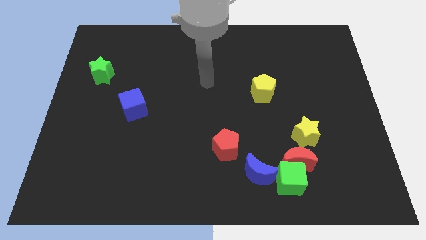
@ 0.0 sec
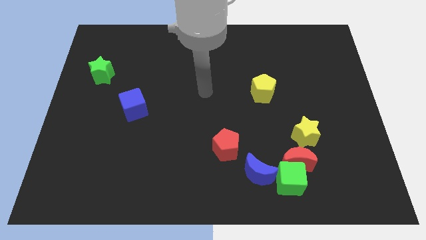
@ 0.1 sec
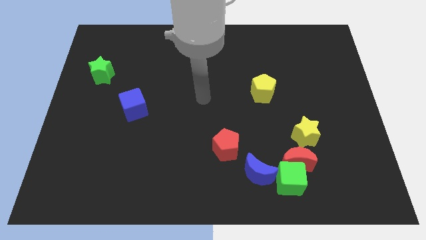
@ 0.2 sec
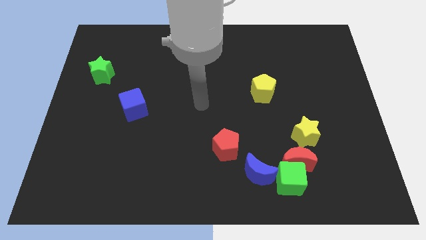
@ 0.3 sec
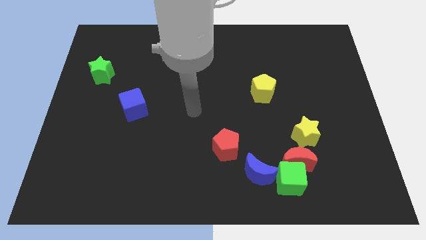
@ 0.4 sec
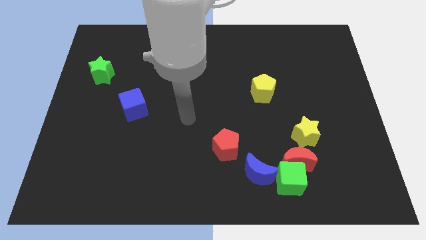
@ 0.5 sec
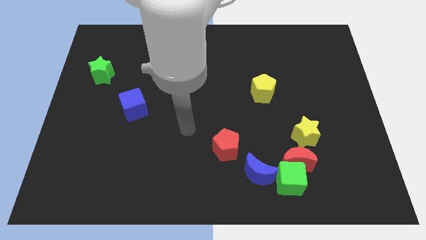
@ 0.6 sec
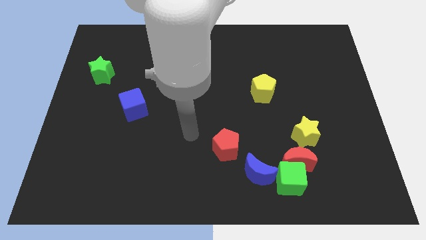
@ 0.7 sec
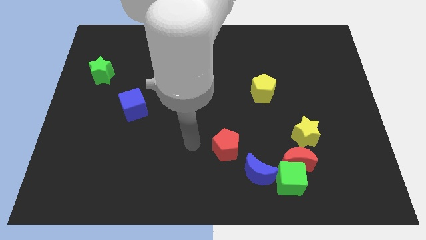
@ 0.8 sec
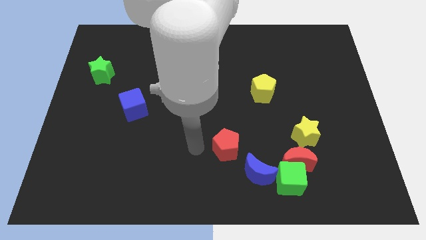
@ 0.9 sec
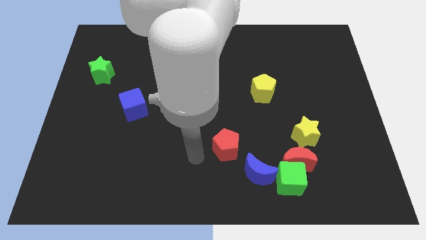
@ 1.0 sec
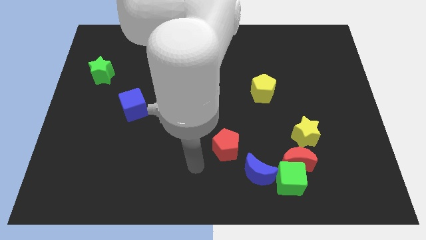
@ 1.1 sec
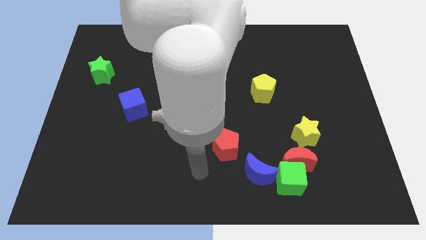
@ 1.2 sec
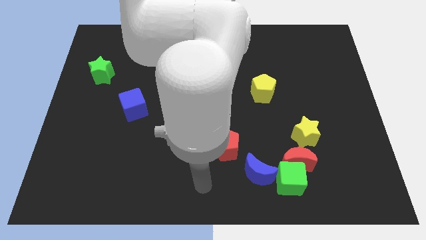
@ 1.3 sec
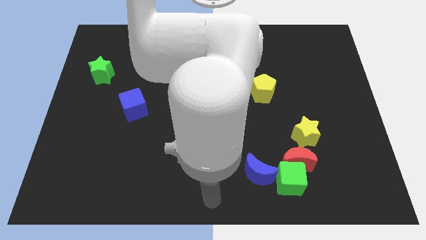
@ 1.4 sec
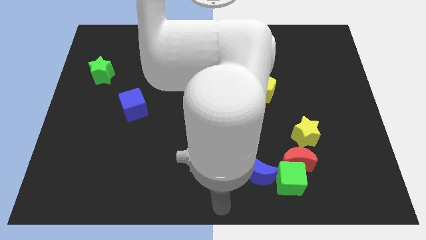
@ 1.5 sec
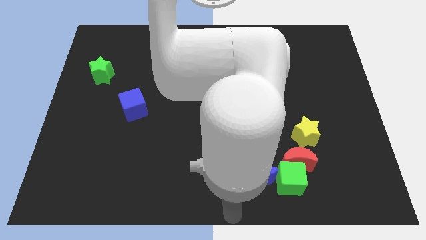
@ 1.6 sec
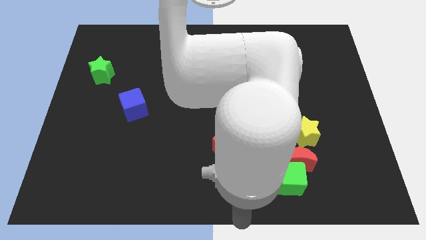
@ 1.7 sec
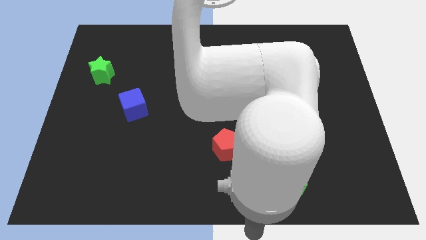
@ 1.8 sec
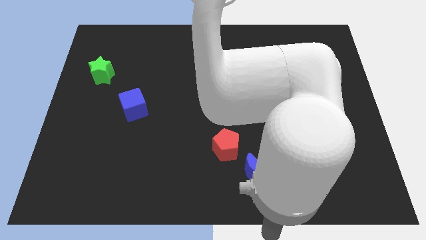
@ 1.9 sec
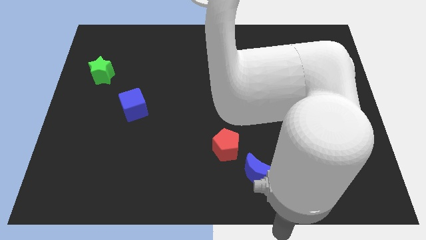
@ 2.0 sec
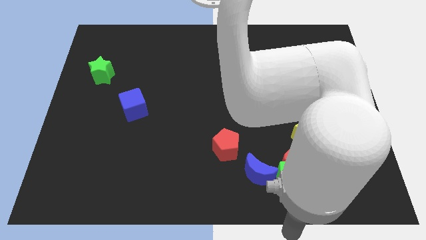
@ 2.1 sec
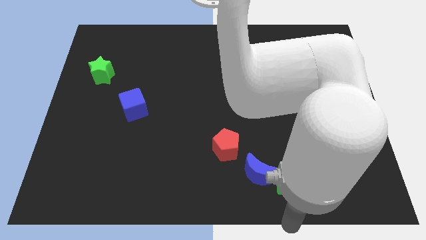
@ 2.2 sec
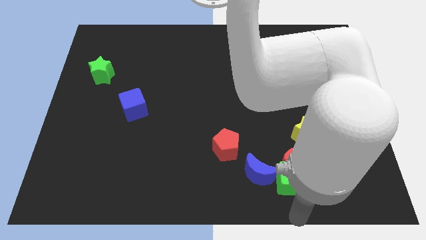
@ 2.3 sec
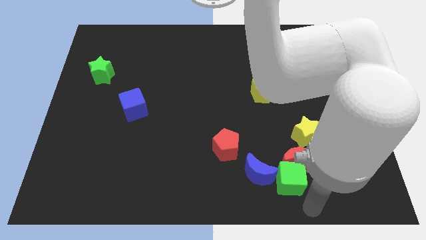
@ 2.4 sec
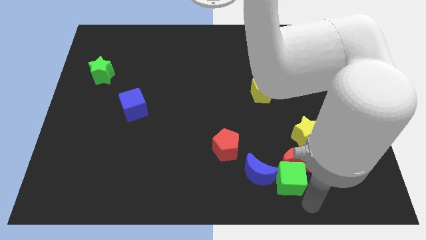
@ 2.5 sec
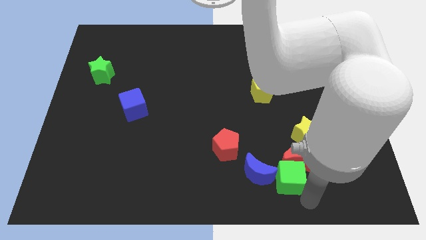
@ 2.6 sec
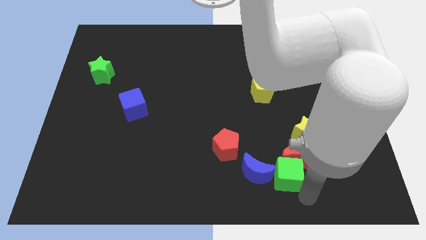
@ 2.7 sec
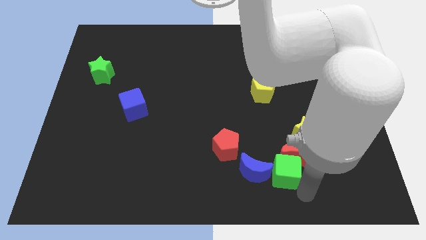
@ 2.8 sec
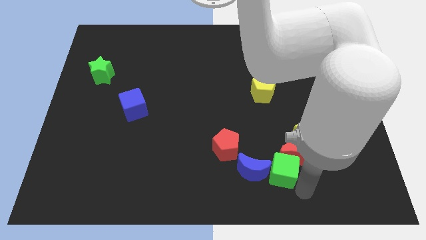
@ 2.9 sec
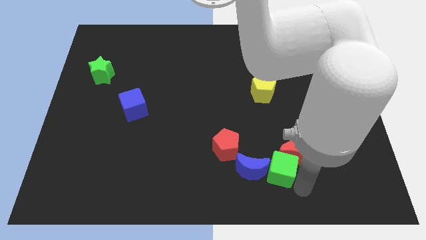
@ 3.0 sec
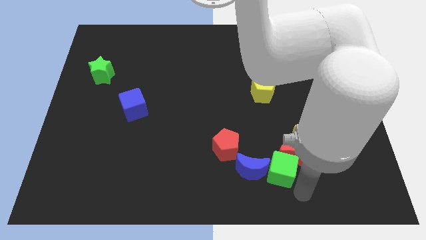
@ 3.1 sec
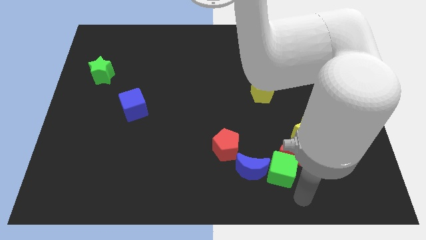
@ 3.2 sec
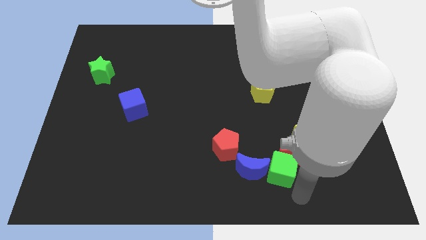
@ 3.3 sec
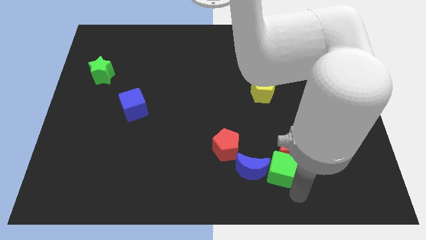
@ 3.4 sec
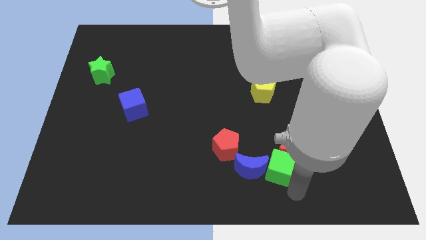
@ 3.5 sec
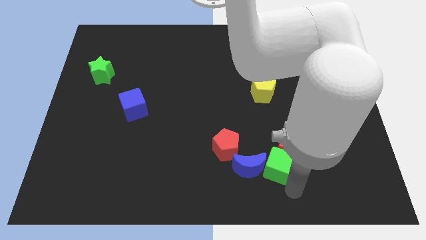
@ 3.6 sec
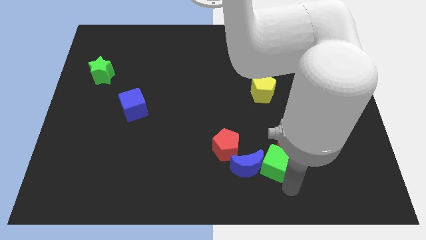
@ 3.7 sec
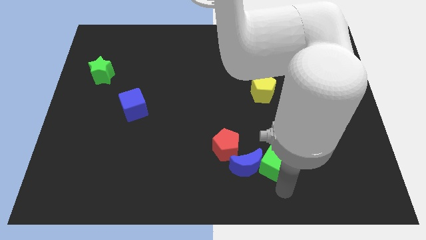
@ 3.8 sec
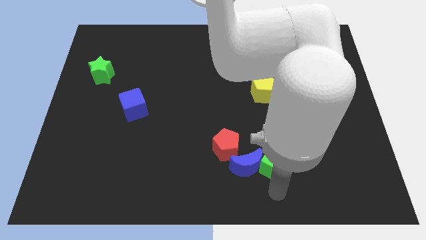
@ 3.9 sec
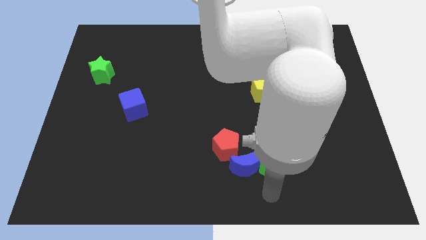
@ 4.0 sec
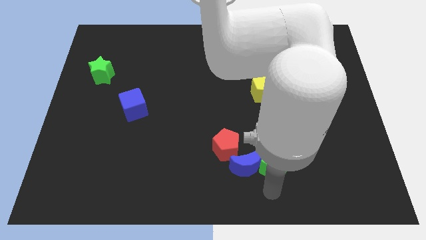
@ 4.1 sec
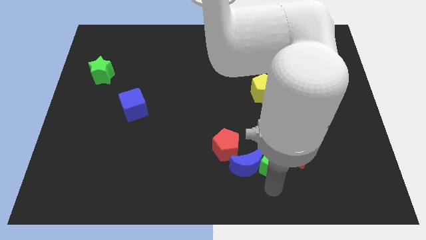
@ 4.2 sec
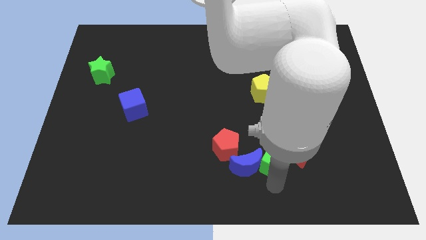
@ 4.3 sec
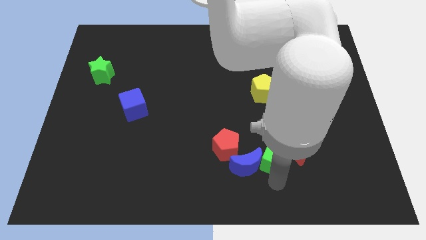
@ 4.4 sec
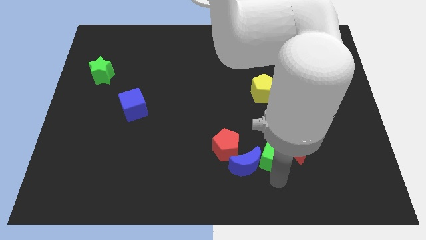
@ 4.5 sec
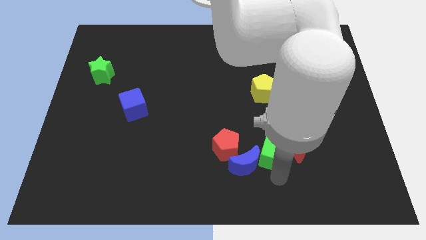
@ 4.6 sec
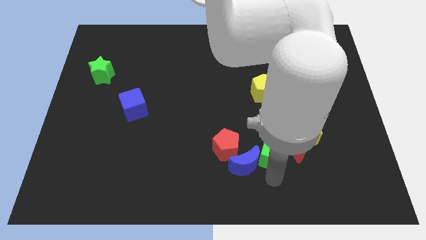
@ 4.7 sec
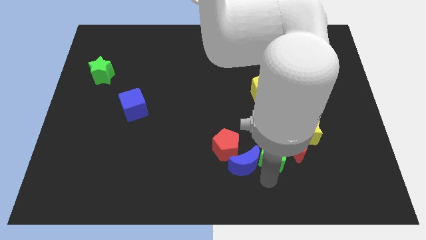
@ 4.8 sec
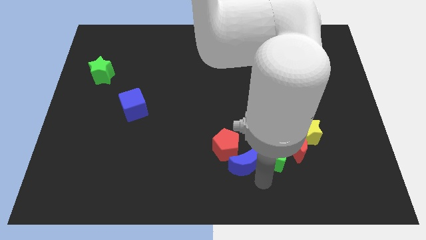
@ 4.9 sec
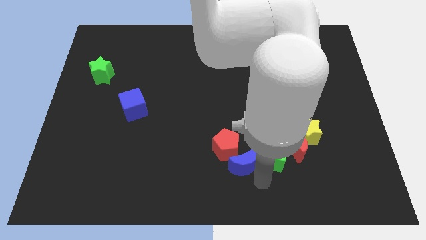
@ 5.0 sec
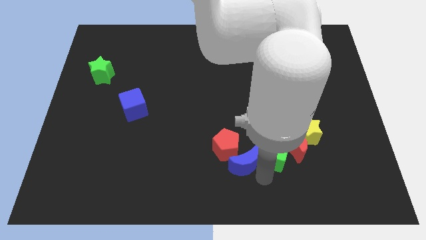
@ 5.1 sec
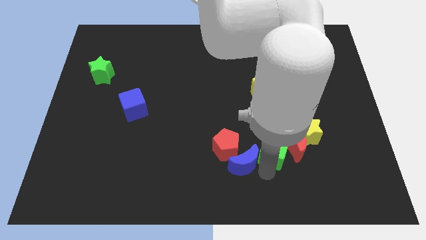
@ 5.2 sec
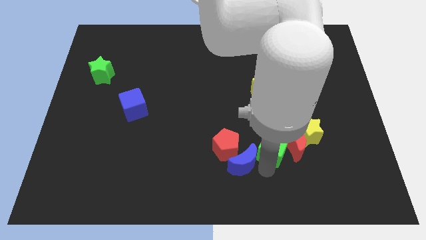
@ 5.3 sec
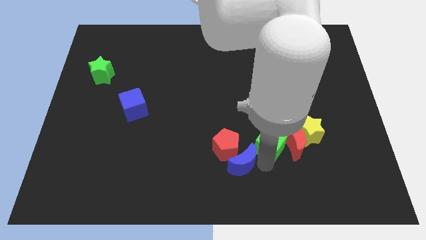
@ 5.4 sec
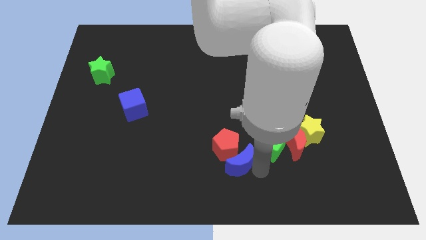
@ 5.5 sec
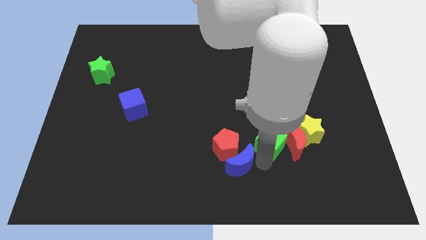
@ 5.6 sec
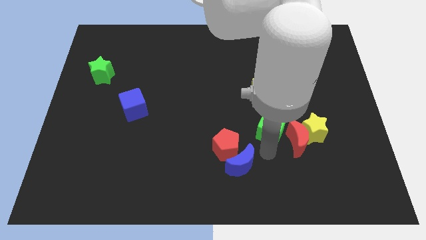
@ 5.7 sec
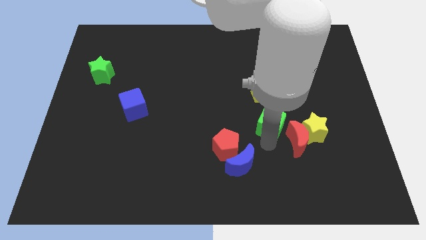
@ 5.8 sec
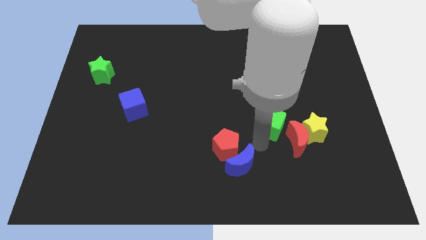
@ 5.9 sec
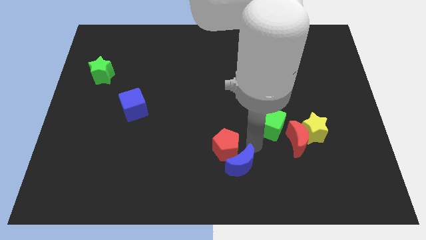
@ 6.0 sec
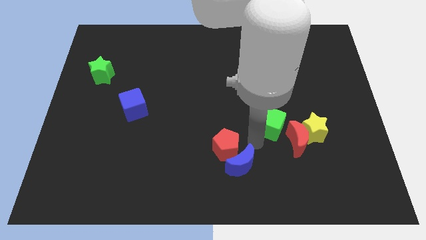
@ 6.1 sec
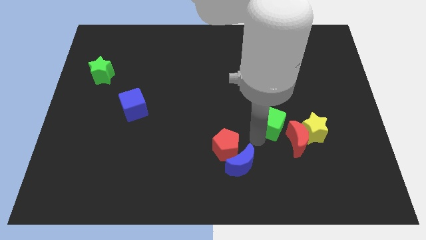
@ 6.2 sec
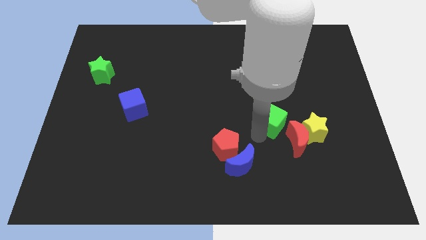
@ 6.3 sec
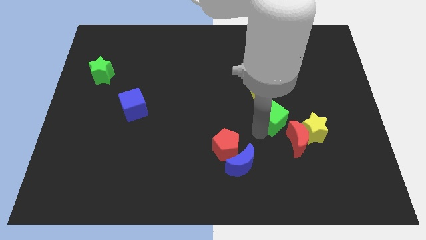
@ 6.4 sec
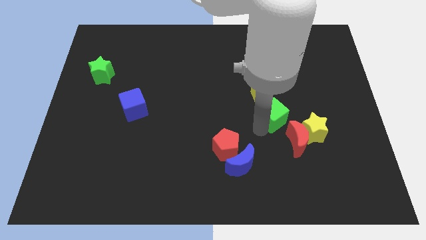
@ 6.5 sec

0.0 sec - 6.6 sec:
push the green cube above the red moon
